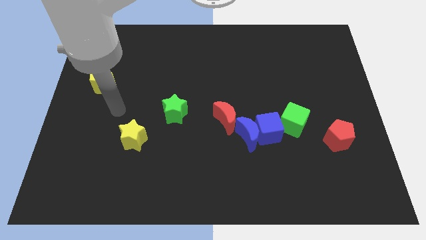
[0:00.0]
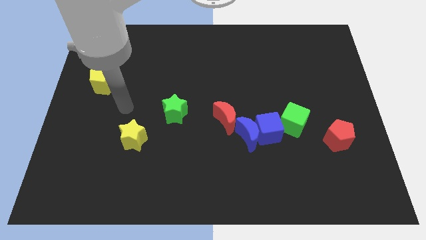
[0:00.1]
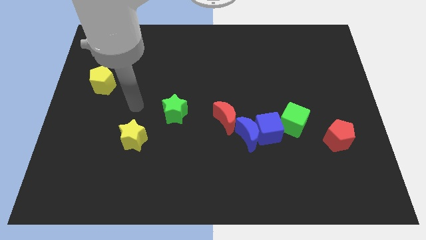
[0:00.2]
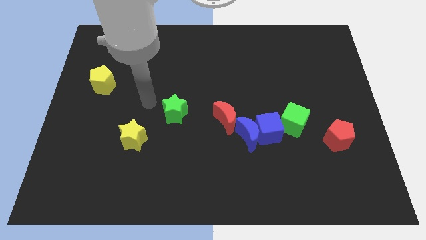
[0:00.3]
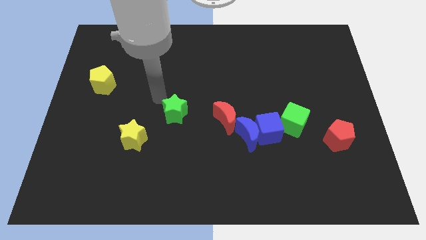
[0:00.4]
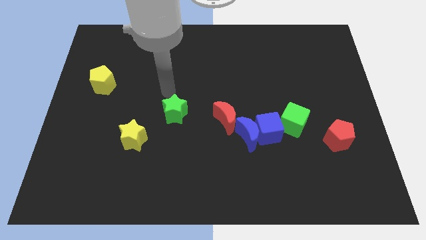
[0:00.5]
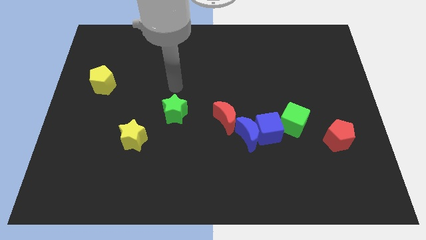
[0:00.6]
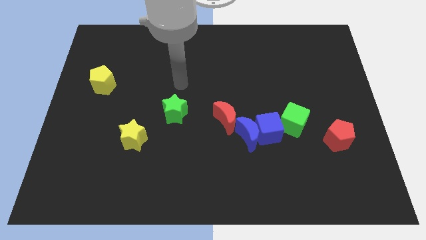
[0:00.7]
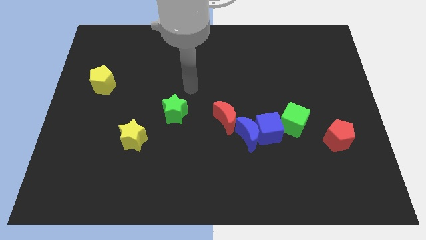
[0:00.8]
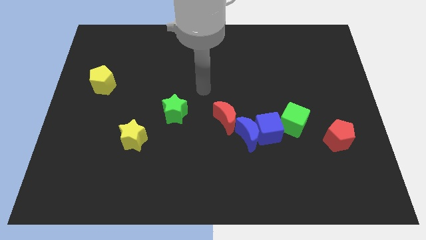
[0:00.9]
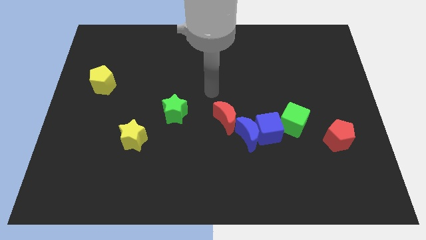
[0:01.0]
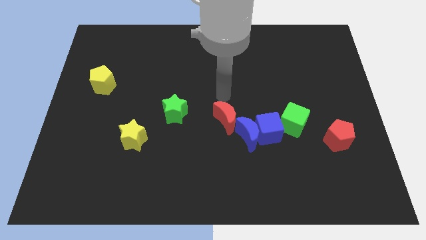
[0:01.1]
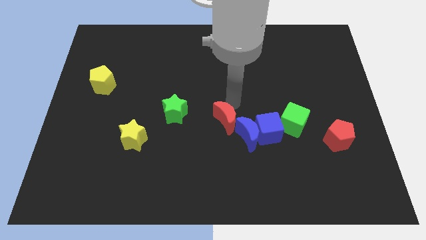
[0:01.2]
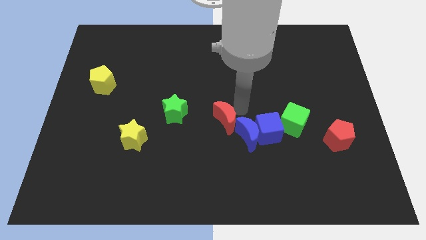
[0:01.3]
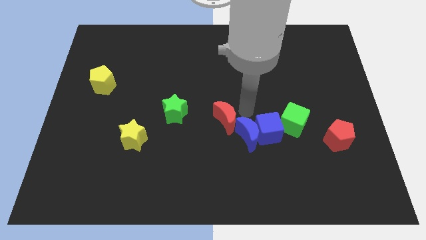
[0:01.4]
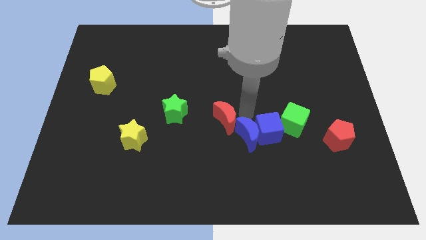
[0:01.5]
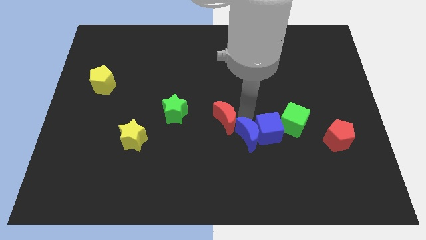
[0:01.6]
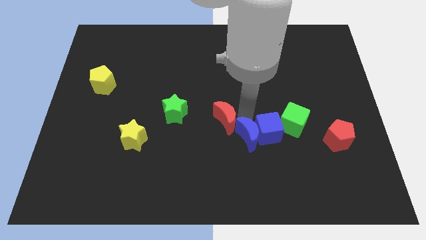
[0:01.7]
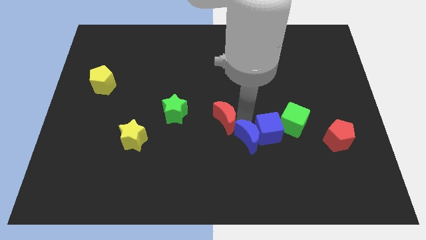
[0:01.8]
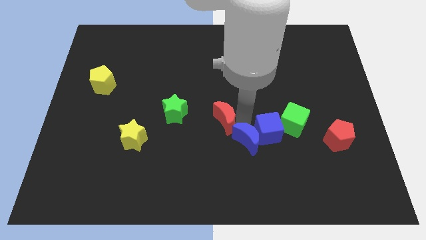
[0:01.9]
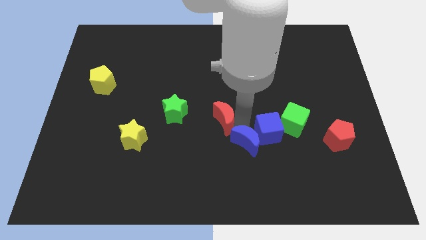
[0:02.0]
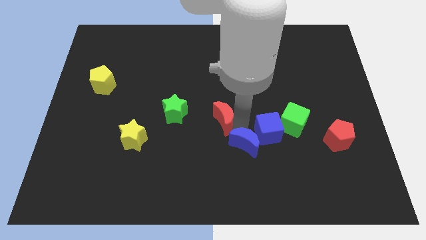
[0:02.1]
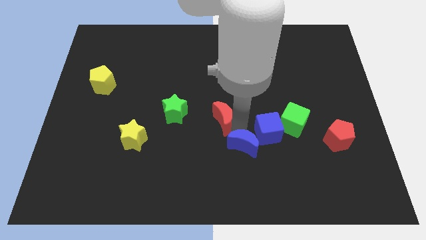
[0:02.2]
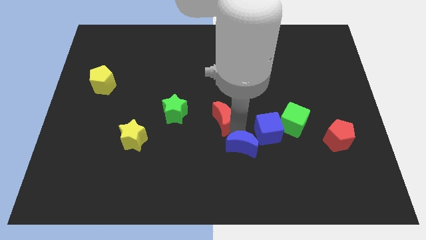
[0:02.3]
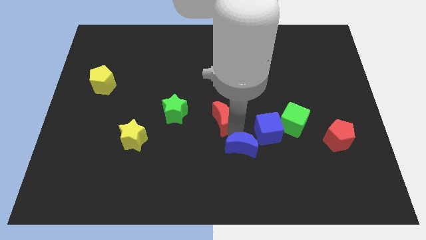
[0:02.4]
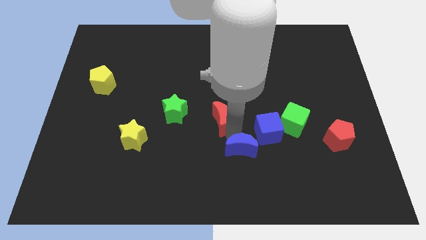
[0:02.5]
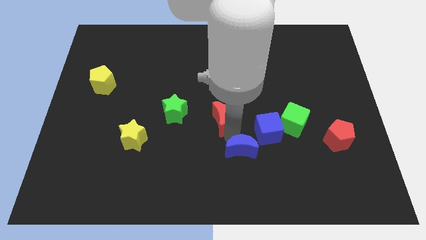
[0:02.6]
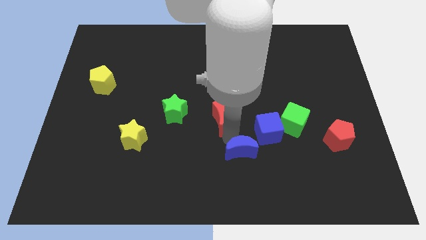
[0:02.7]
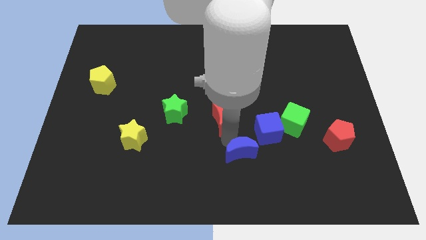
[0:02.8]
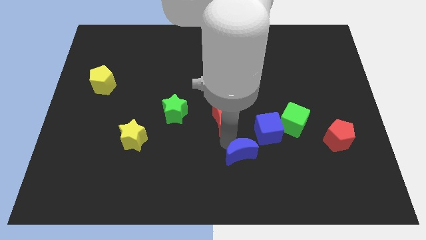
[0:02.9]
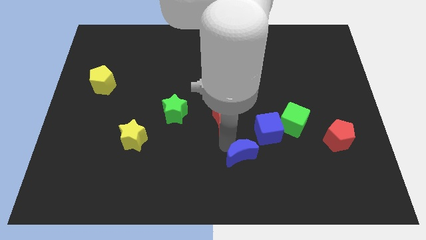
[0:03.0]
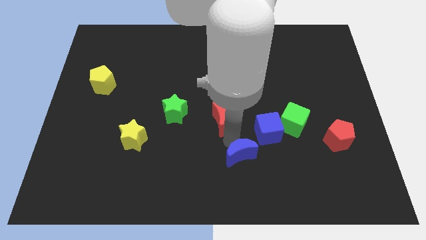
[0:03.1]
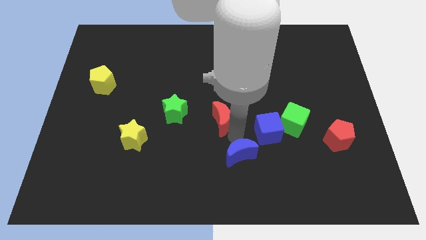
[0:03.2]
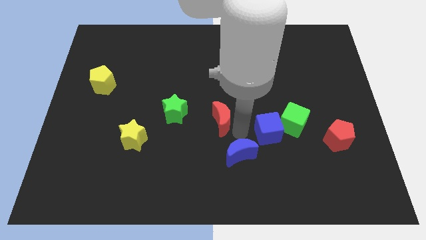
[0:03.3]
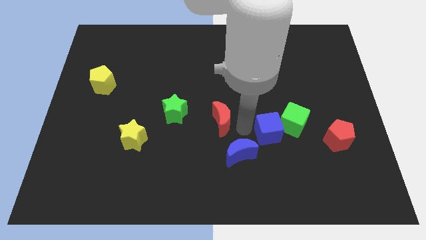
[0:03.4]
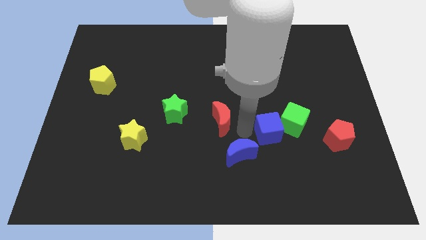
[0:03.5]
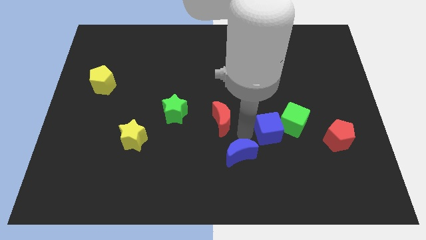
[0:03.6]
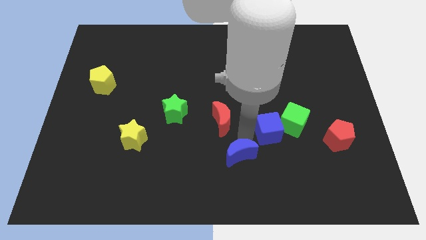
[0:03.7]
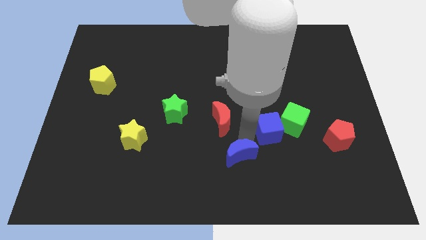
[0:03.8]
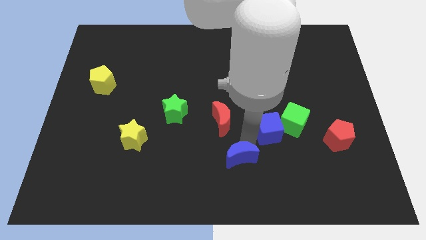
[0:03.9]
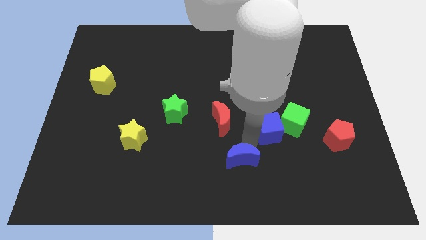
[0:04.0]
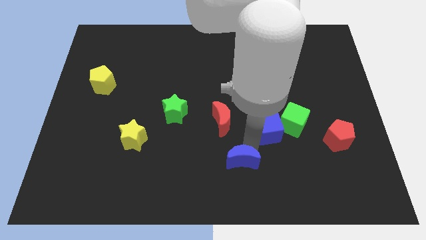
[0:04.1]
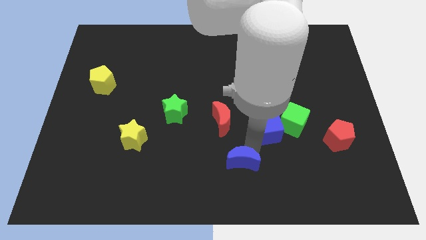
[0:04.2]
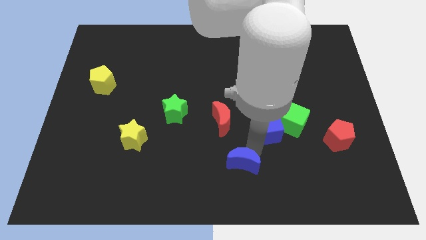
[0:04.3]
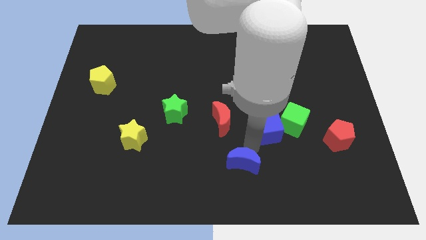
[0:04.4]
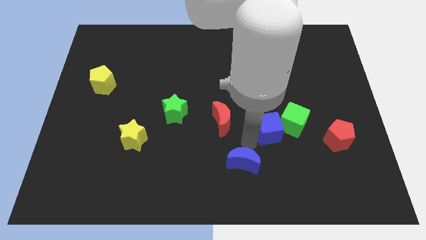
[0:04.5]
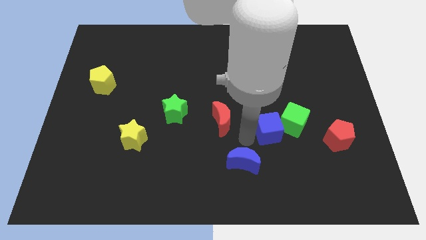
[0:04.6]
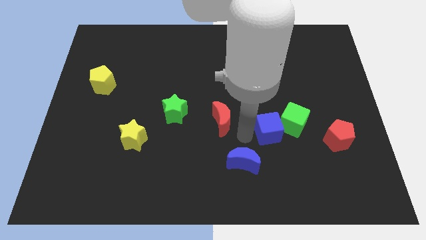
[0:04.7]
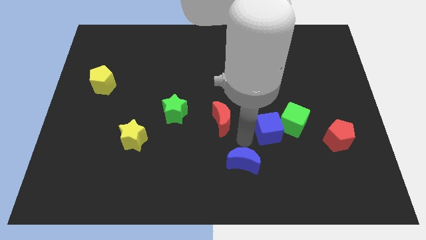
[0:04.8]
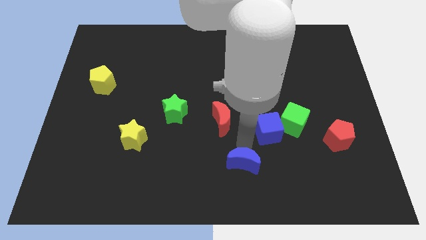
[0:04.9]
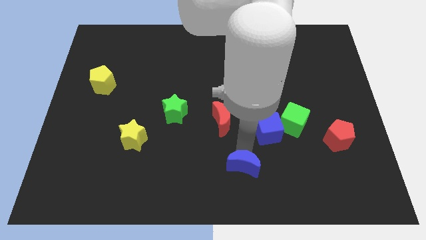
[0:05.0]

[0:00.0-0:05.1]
separate the blue moon from the blue cube and red moon

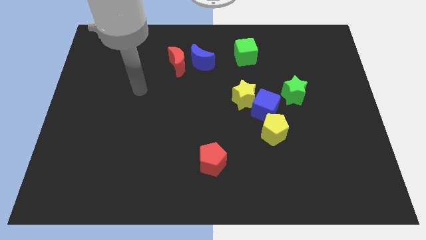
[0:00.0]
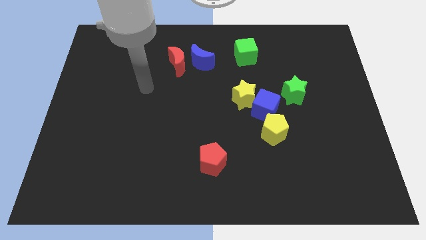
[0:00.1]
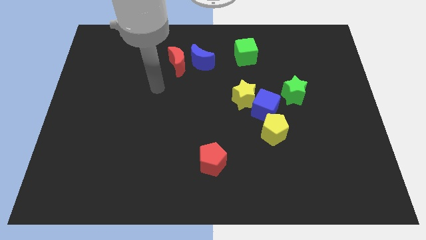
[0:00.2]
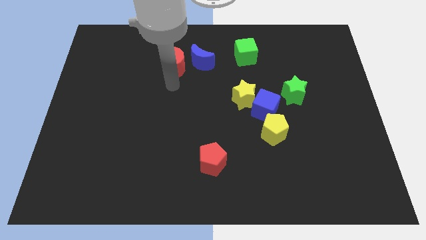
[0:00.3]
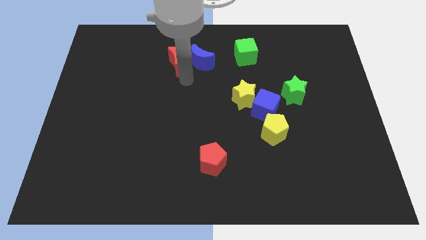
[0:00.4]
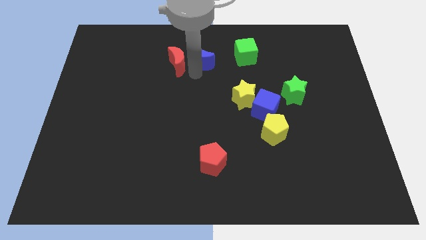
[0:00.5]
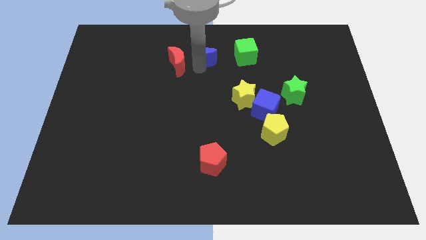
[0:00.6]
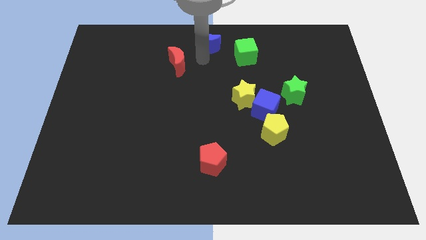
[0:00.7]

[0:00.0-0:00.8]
separate the red moon from the blue moon

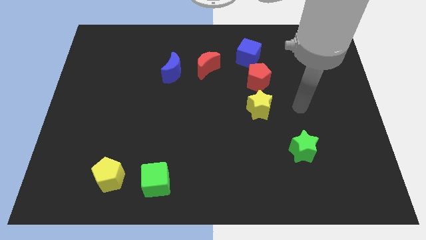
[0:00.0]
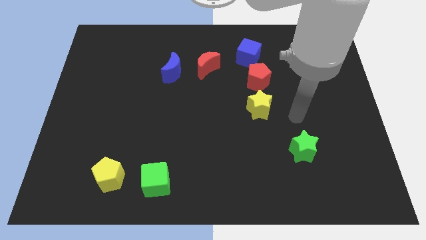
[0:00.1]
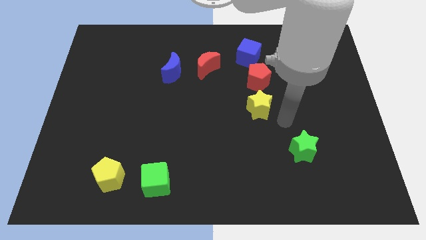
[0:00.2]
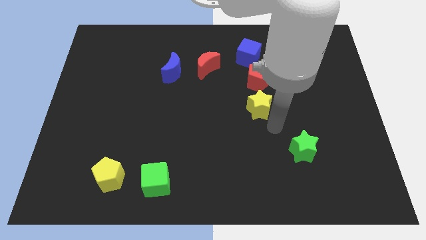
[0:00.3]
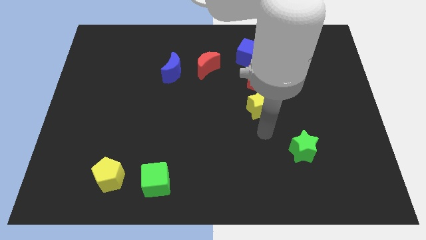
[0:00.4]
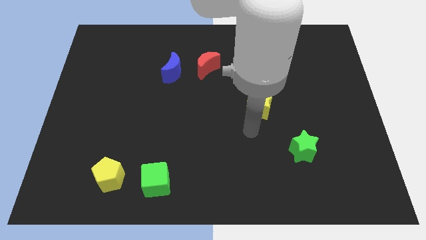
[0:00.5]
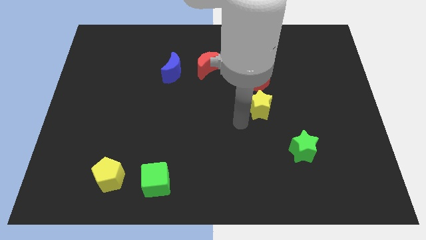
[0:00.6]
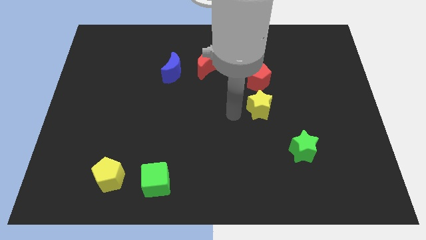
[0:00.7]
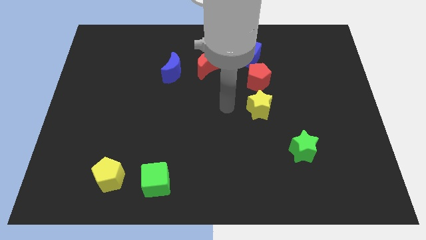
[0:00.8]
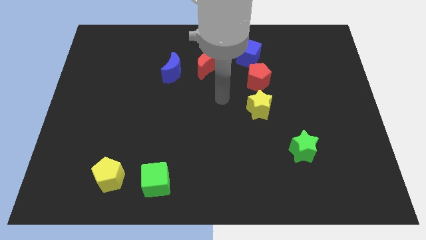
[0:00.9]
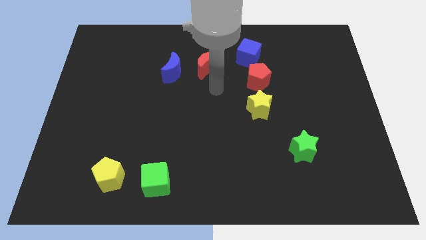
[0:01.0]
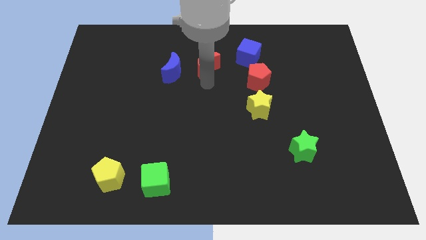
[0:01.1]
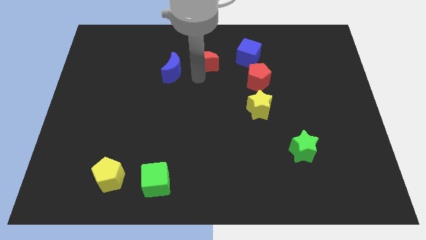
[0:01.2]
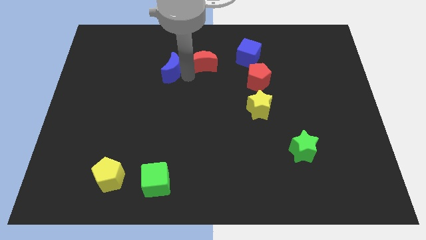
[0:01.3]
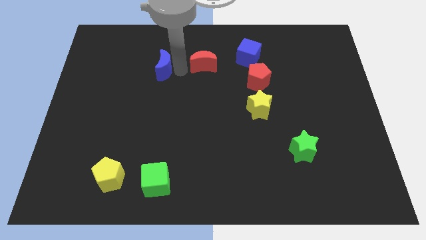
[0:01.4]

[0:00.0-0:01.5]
pull the red moon apart from the blue moon

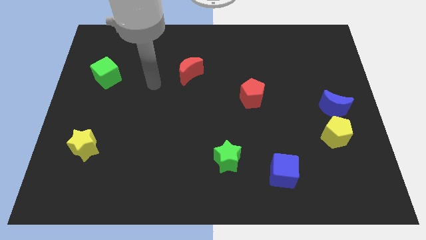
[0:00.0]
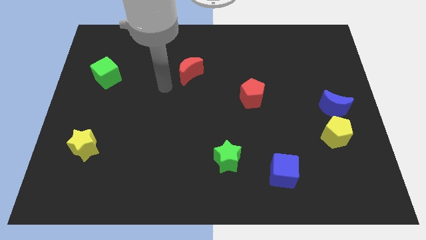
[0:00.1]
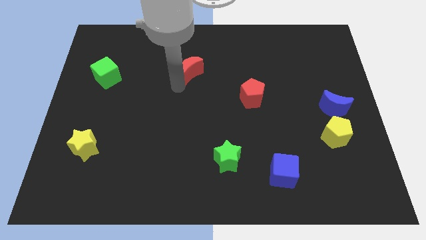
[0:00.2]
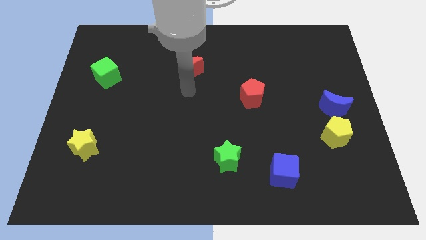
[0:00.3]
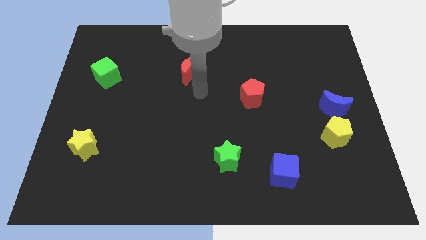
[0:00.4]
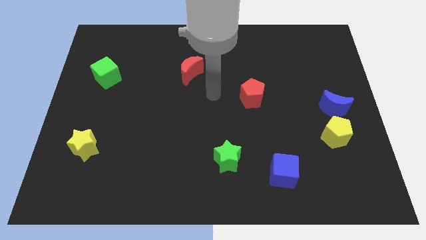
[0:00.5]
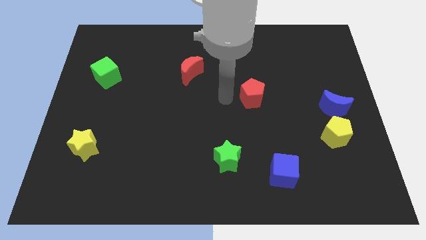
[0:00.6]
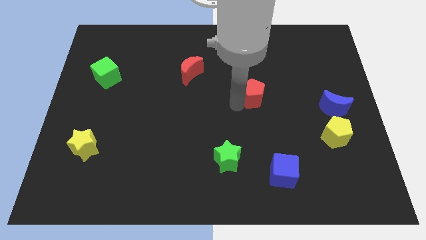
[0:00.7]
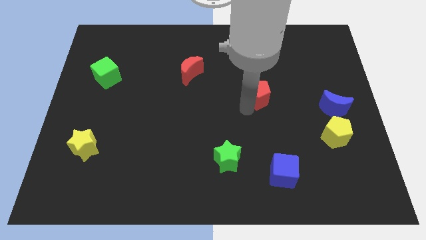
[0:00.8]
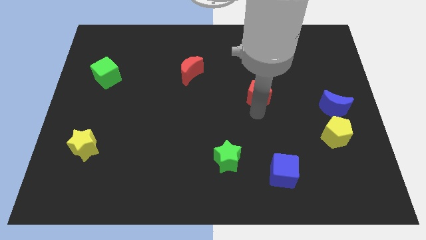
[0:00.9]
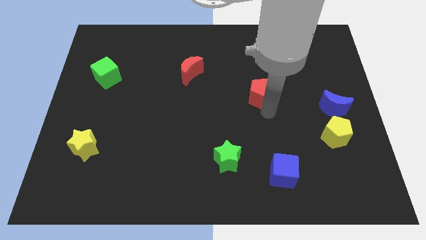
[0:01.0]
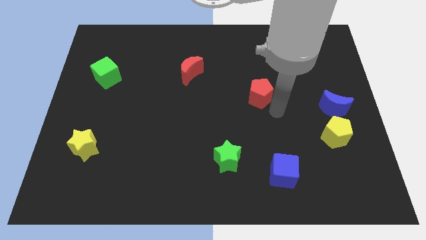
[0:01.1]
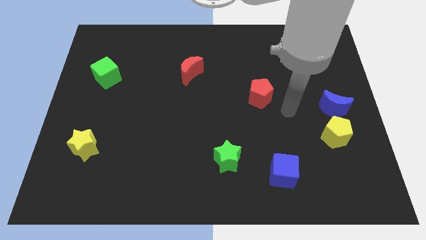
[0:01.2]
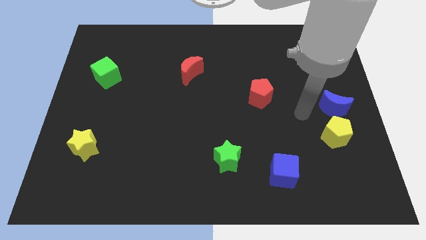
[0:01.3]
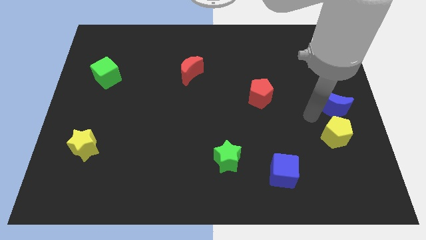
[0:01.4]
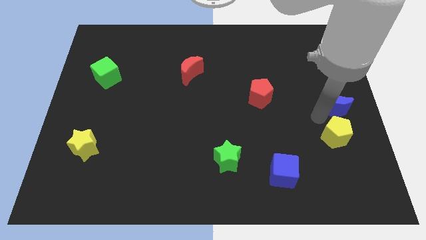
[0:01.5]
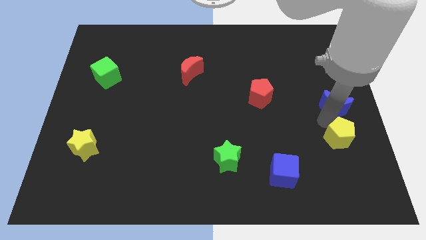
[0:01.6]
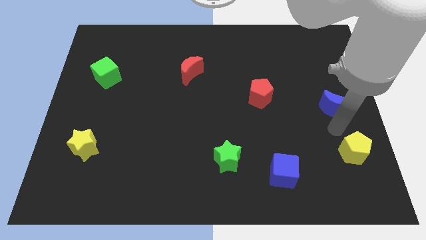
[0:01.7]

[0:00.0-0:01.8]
pull the blue moon apart from the yellow pentagon

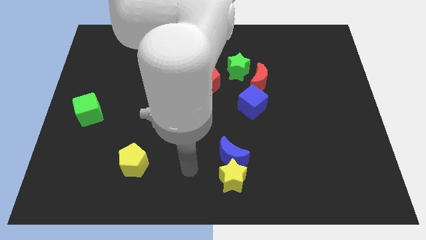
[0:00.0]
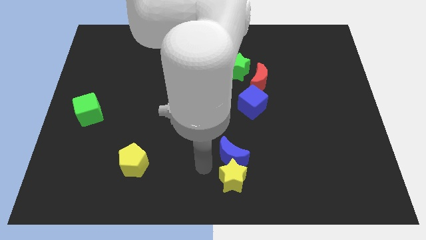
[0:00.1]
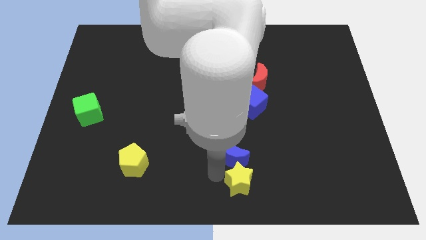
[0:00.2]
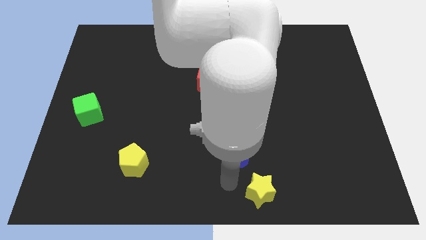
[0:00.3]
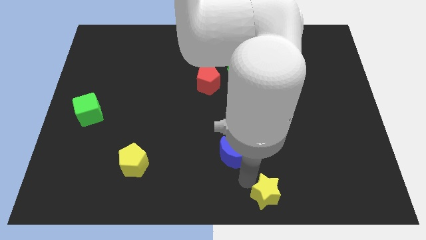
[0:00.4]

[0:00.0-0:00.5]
separate the blue moon from the yellow star
